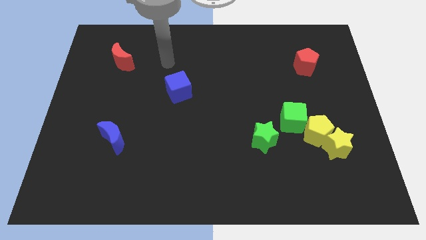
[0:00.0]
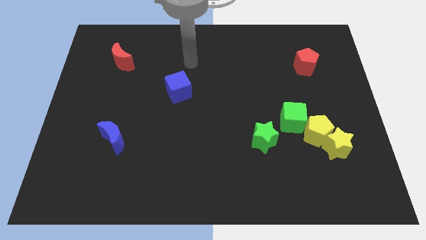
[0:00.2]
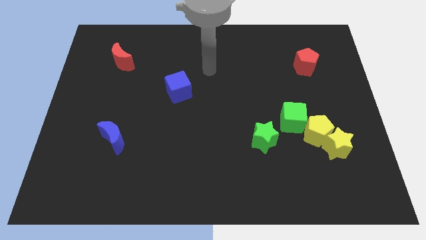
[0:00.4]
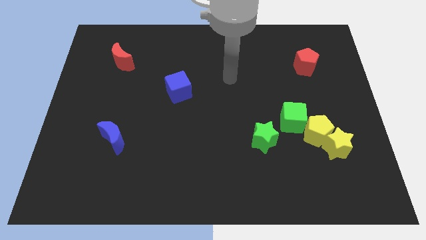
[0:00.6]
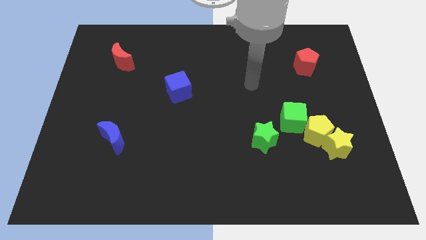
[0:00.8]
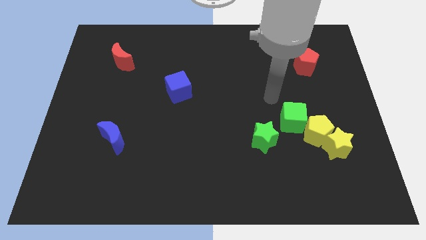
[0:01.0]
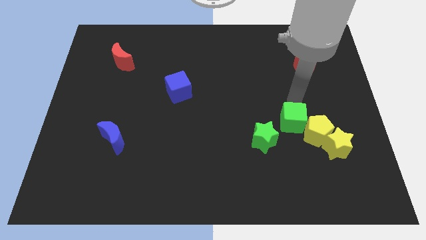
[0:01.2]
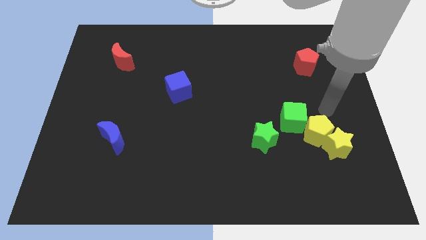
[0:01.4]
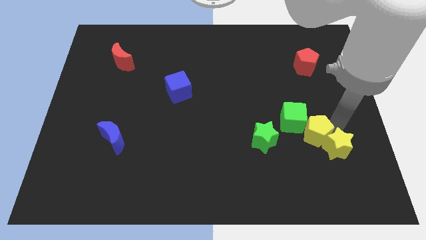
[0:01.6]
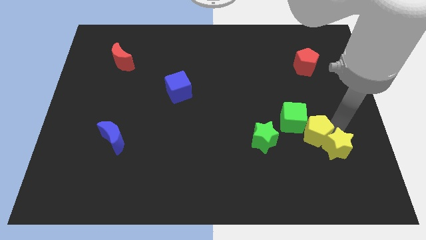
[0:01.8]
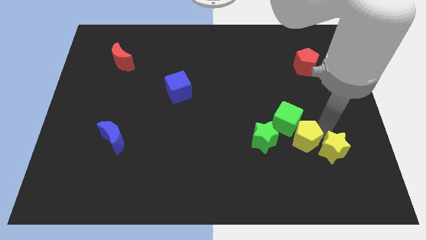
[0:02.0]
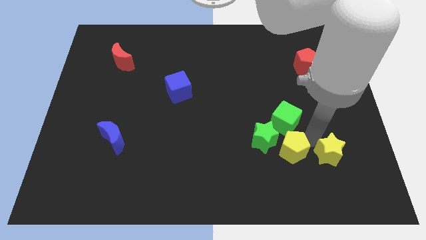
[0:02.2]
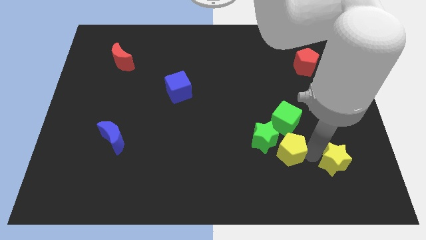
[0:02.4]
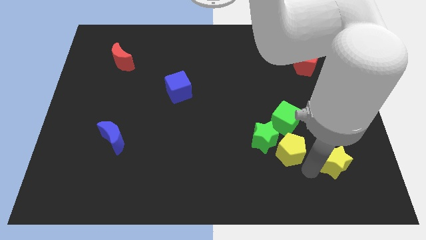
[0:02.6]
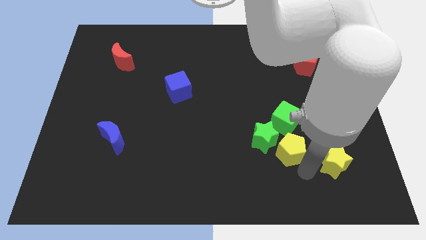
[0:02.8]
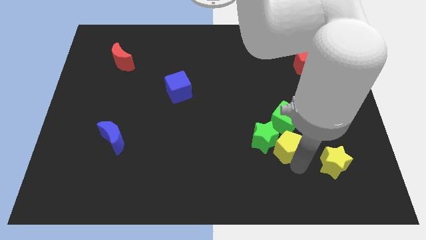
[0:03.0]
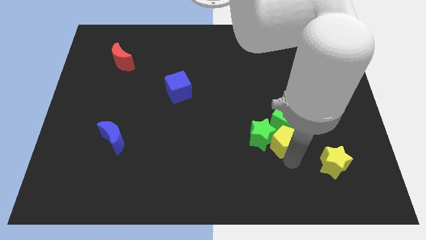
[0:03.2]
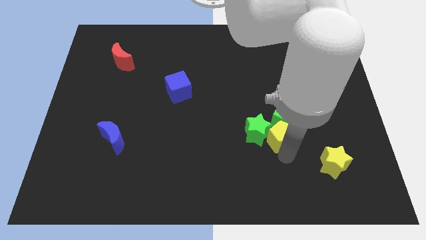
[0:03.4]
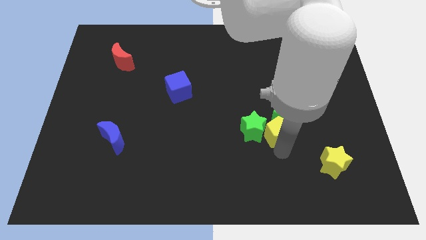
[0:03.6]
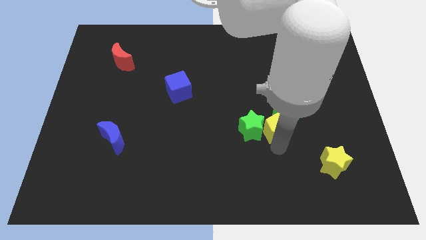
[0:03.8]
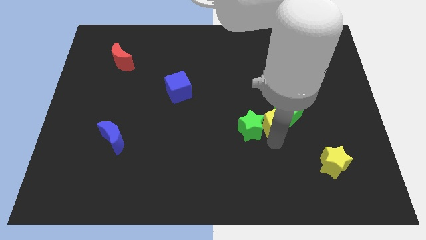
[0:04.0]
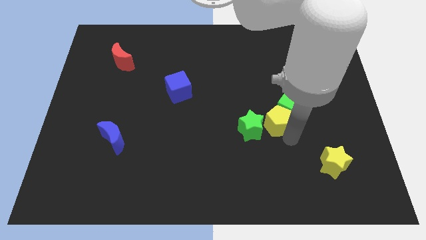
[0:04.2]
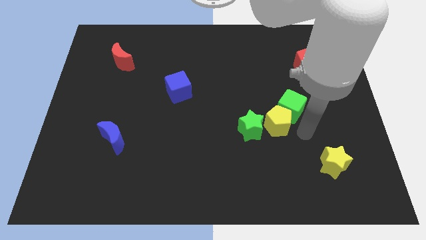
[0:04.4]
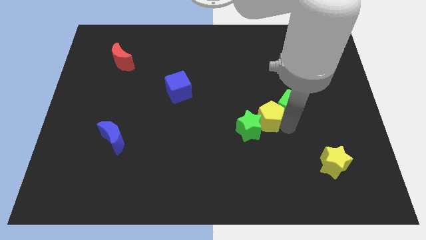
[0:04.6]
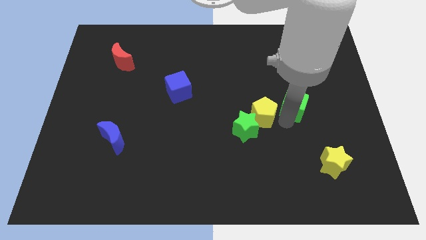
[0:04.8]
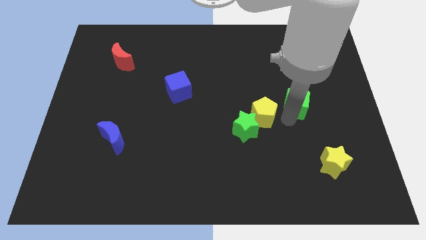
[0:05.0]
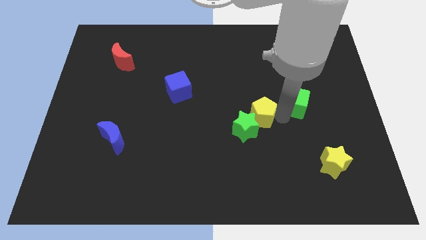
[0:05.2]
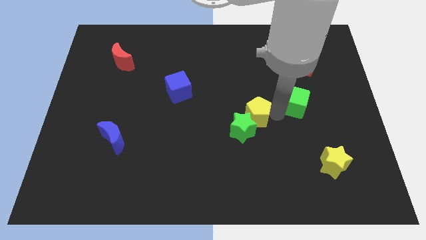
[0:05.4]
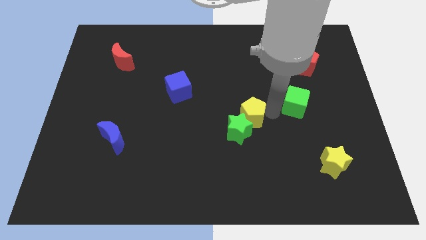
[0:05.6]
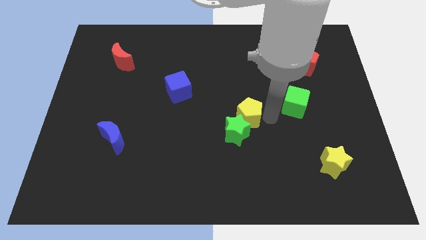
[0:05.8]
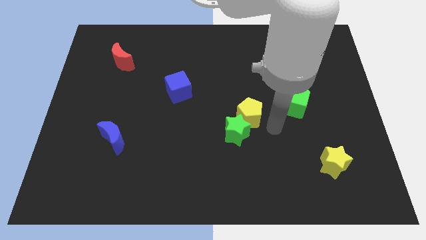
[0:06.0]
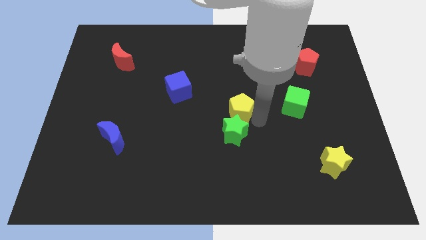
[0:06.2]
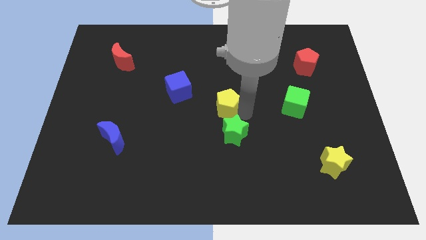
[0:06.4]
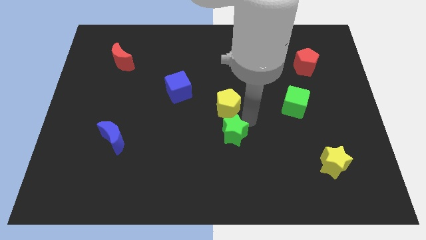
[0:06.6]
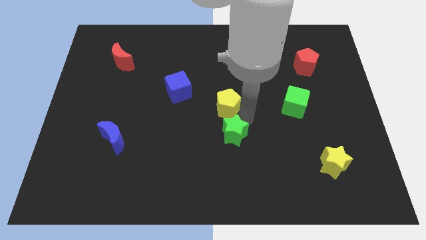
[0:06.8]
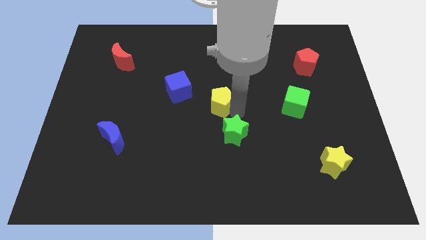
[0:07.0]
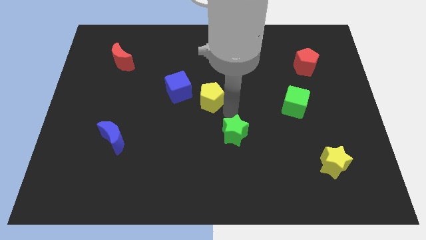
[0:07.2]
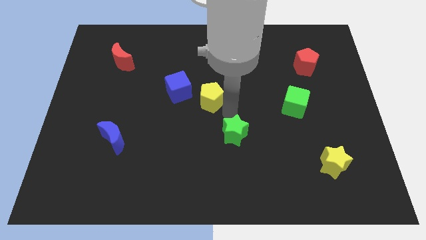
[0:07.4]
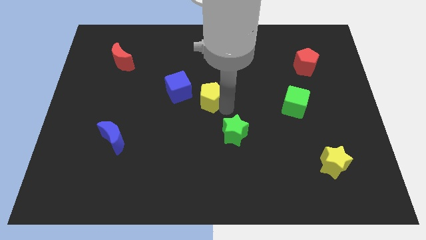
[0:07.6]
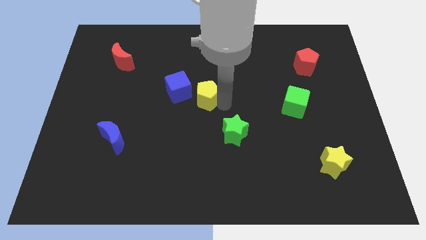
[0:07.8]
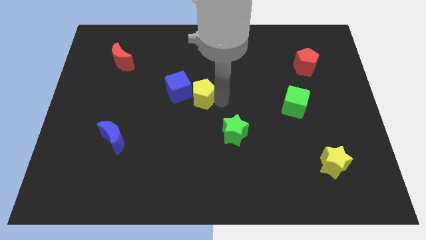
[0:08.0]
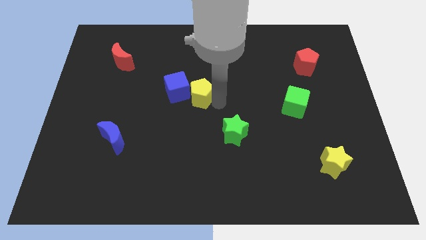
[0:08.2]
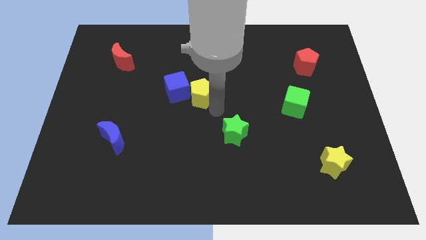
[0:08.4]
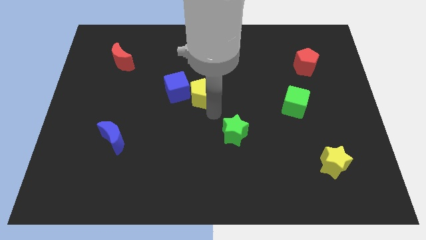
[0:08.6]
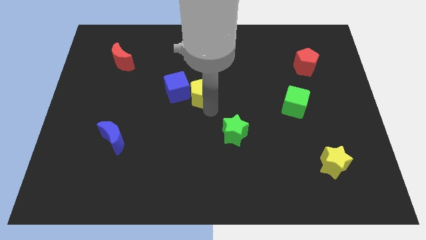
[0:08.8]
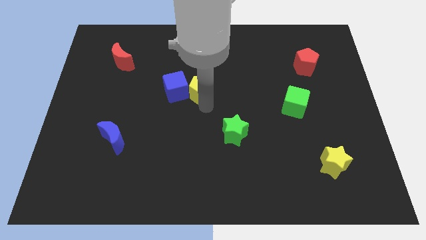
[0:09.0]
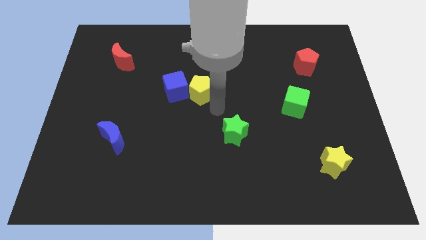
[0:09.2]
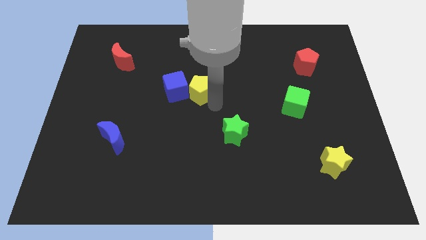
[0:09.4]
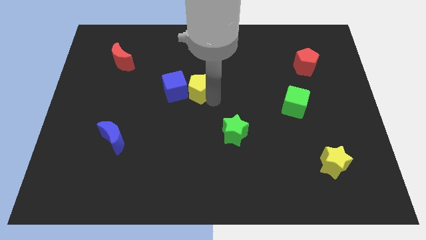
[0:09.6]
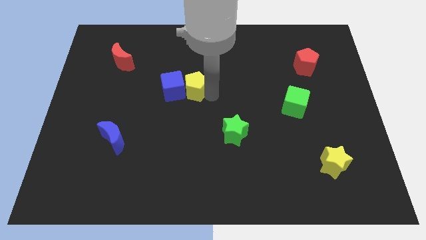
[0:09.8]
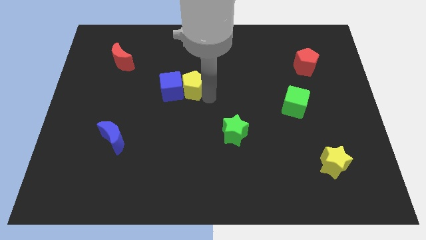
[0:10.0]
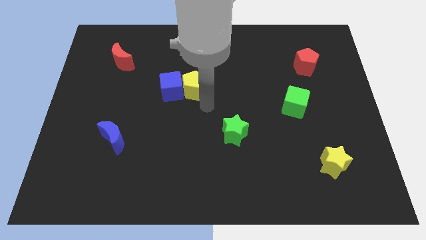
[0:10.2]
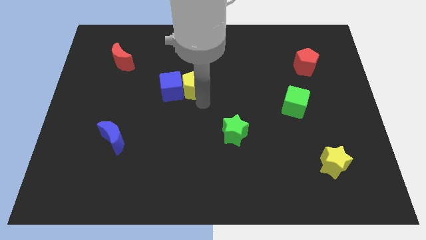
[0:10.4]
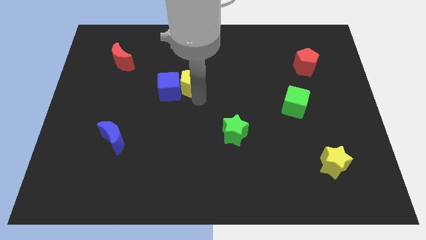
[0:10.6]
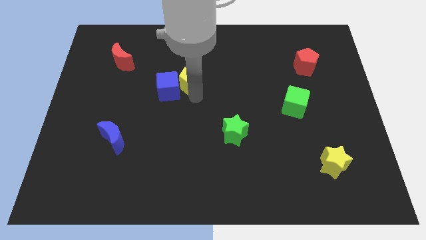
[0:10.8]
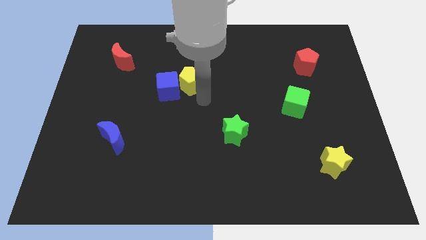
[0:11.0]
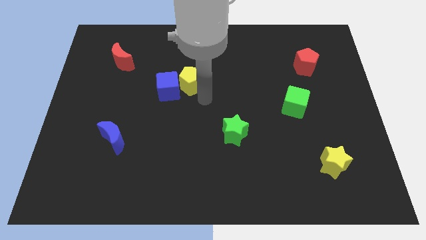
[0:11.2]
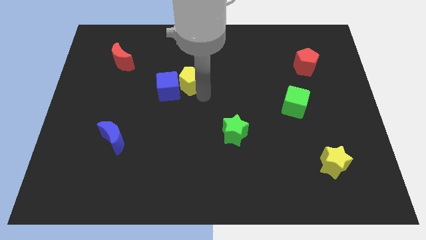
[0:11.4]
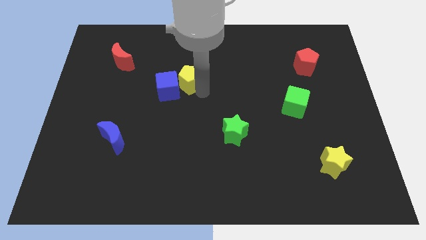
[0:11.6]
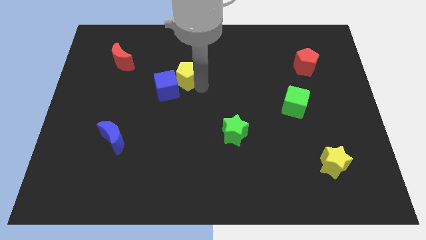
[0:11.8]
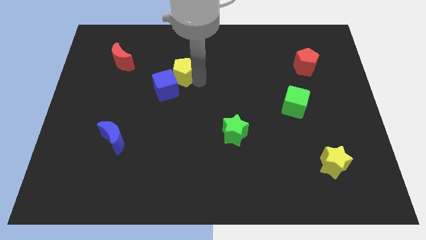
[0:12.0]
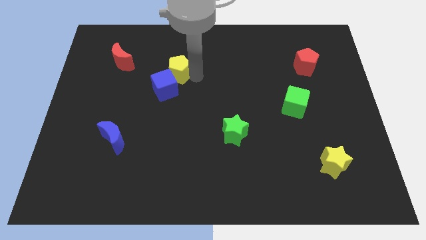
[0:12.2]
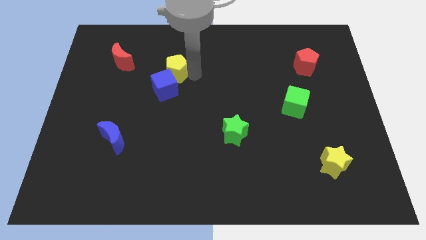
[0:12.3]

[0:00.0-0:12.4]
slide the yellow pentagon to the right of the red moon

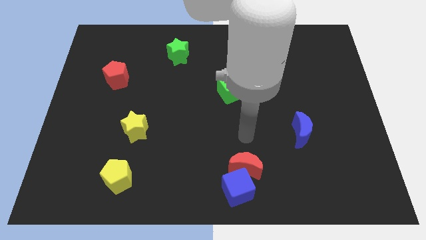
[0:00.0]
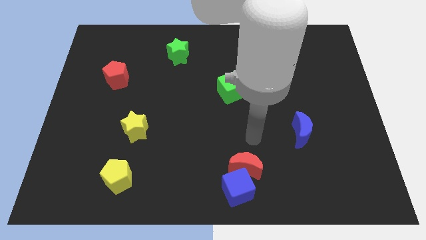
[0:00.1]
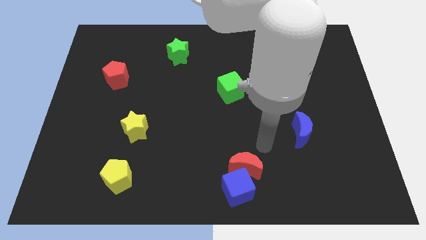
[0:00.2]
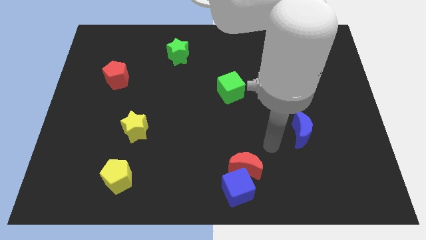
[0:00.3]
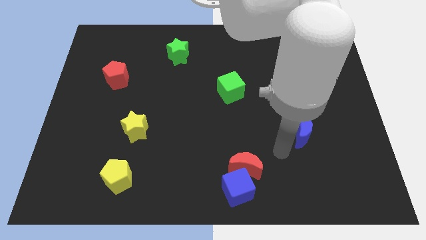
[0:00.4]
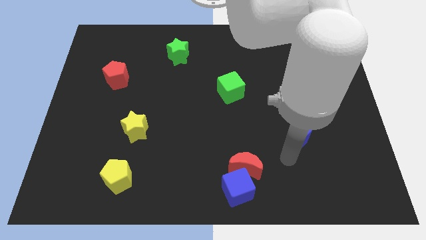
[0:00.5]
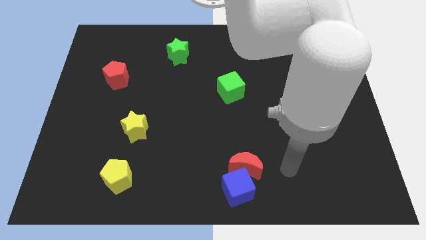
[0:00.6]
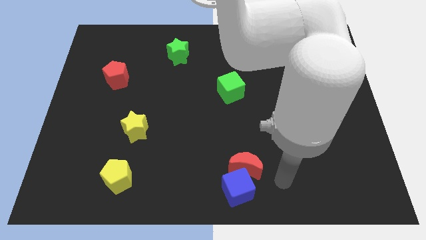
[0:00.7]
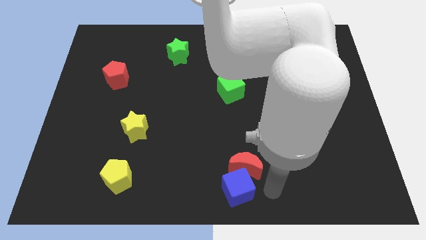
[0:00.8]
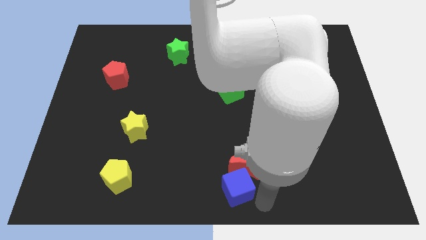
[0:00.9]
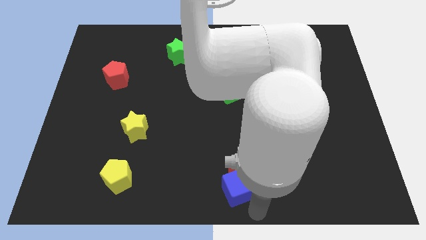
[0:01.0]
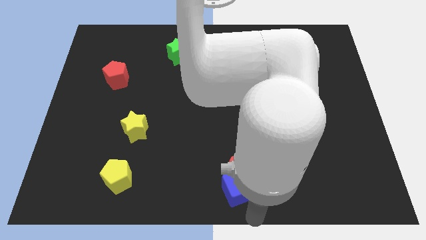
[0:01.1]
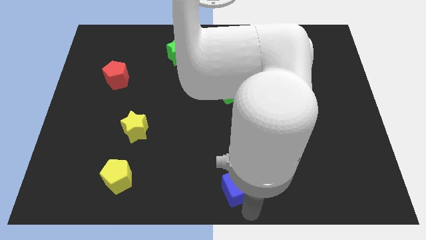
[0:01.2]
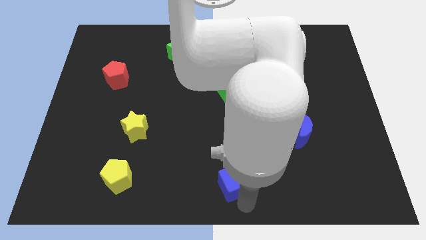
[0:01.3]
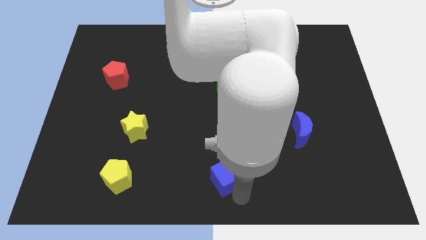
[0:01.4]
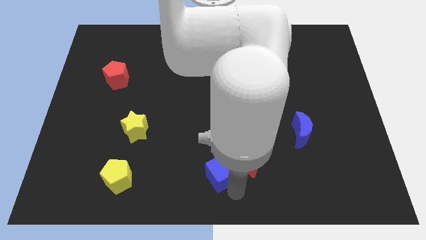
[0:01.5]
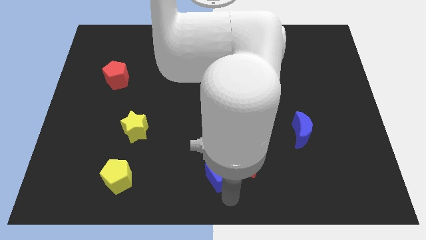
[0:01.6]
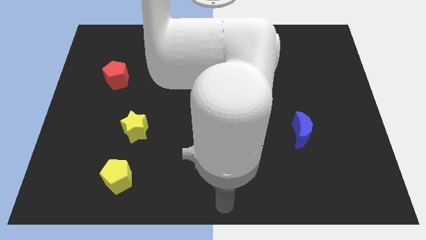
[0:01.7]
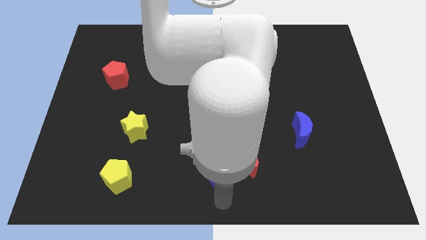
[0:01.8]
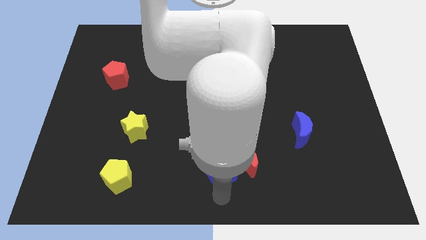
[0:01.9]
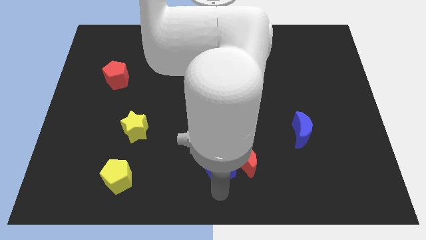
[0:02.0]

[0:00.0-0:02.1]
put the blue cube diagonally up and to the left of the red moon
